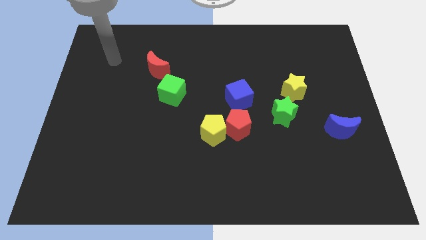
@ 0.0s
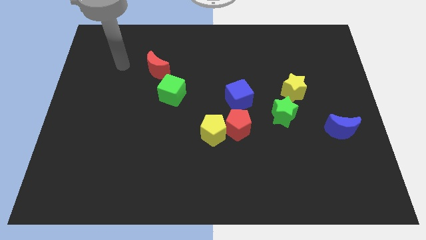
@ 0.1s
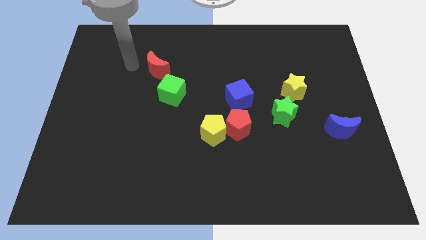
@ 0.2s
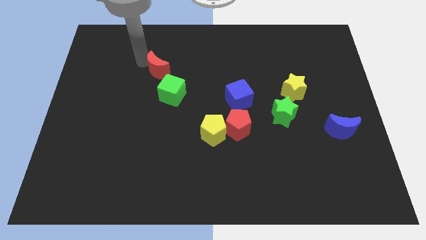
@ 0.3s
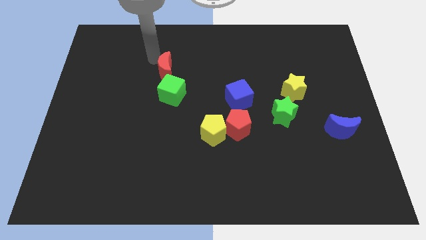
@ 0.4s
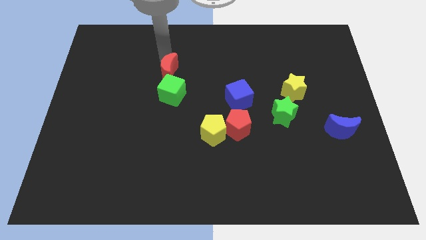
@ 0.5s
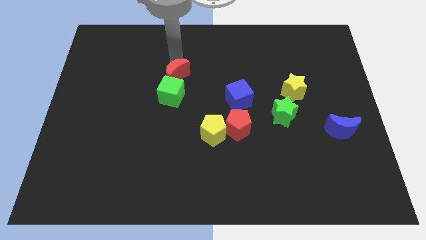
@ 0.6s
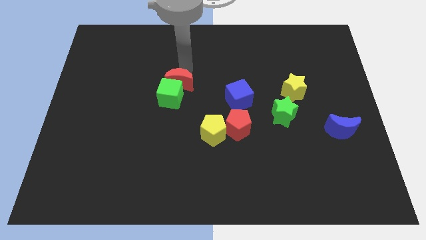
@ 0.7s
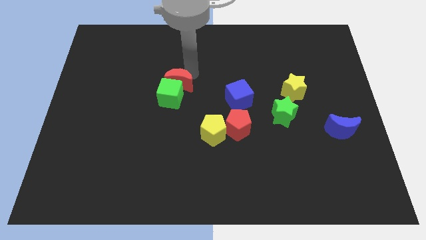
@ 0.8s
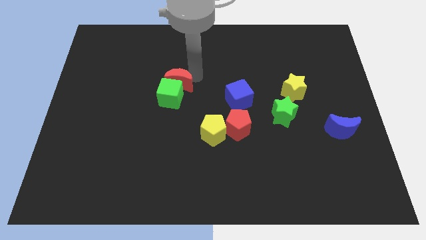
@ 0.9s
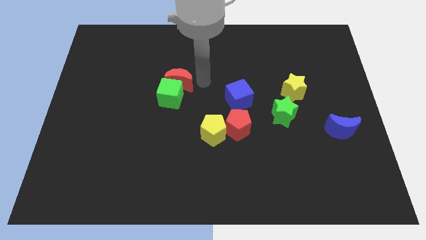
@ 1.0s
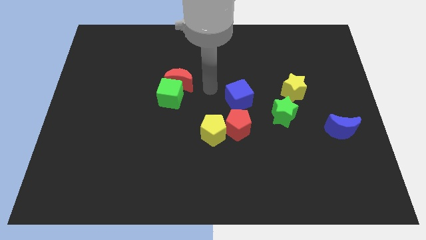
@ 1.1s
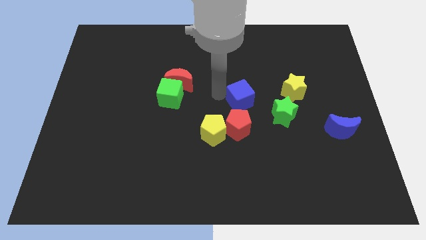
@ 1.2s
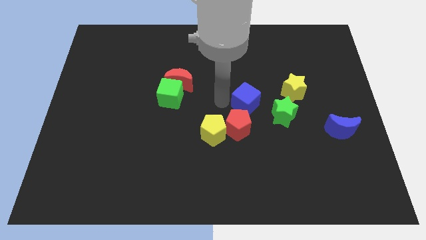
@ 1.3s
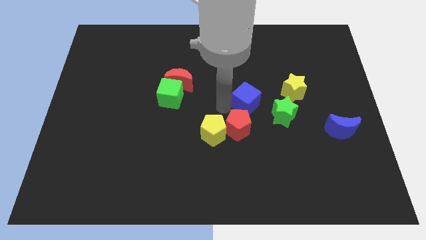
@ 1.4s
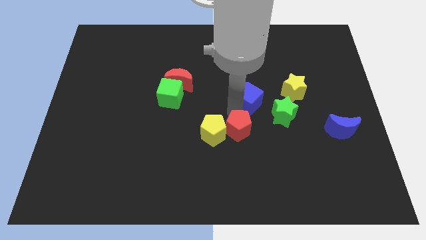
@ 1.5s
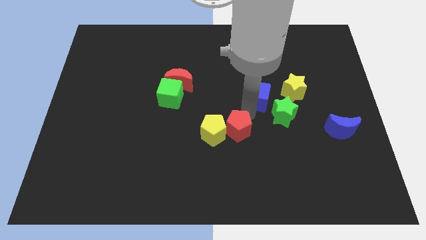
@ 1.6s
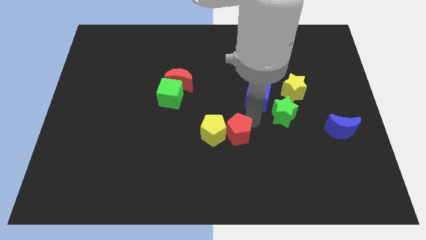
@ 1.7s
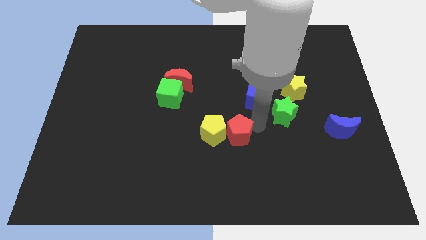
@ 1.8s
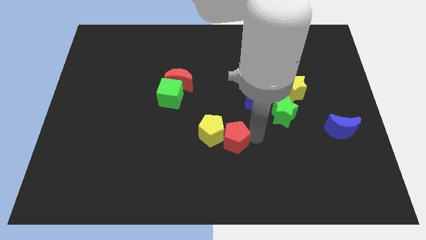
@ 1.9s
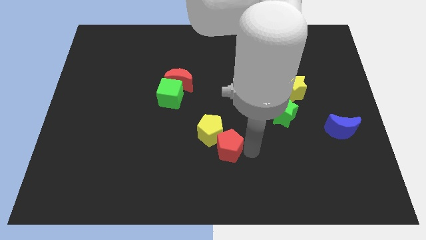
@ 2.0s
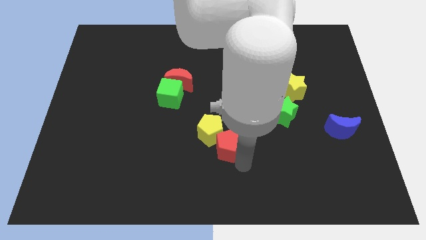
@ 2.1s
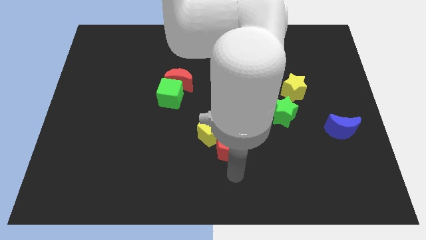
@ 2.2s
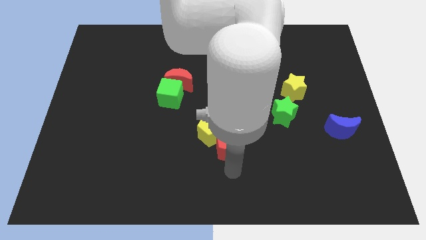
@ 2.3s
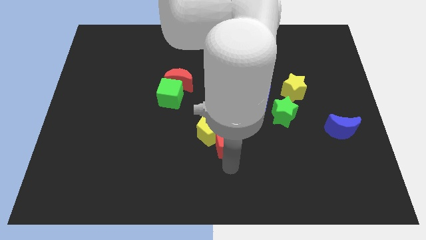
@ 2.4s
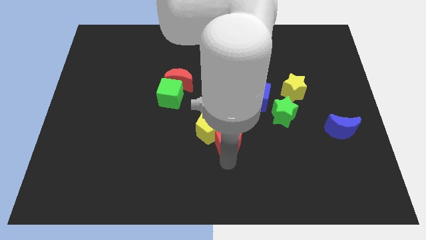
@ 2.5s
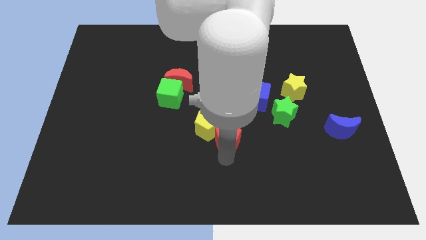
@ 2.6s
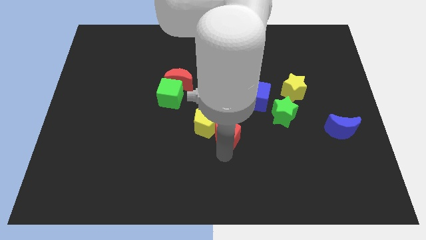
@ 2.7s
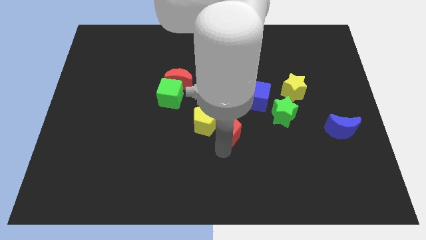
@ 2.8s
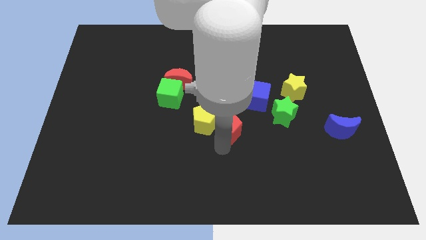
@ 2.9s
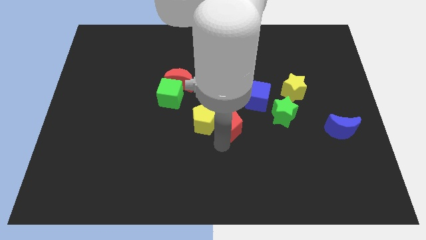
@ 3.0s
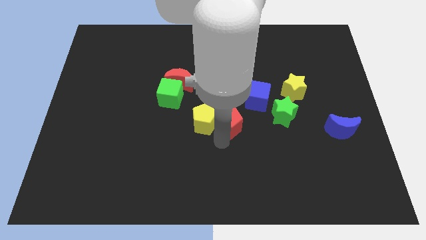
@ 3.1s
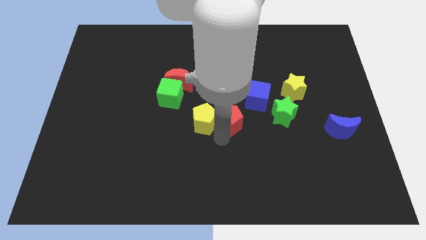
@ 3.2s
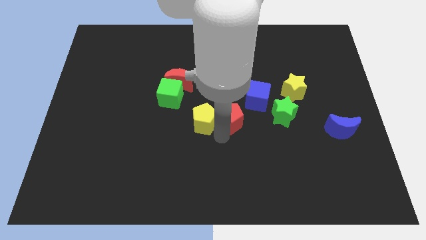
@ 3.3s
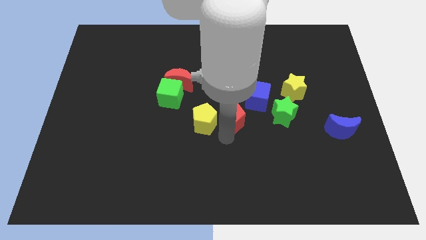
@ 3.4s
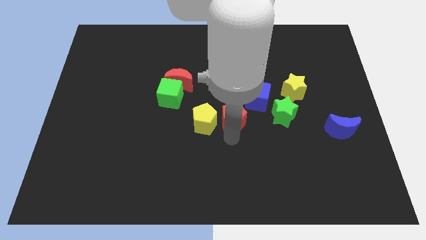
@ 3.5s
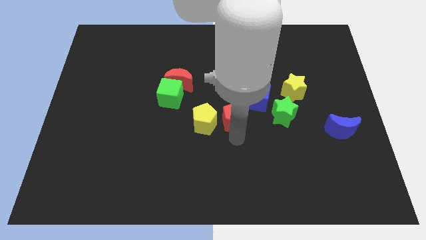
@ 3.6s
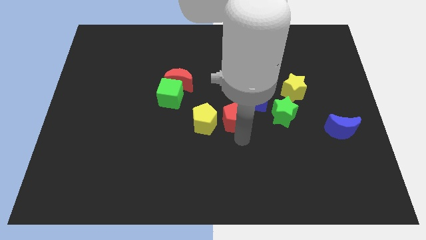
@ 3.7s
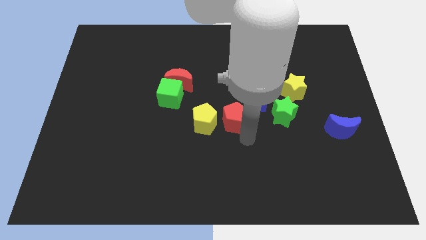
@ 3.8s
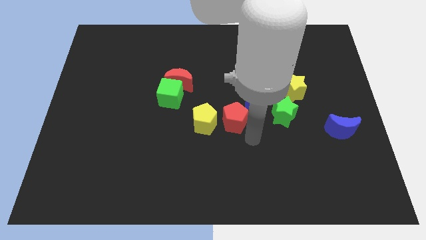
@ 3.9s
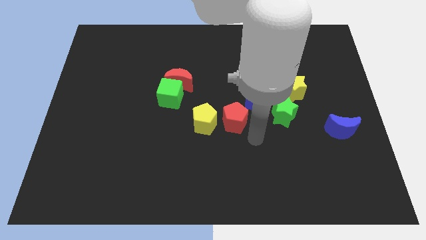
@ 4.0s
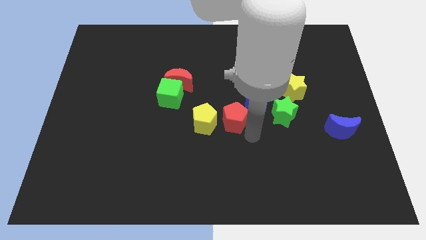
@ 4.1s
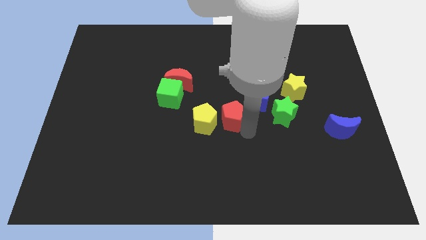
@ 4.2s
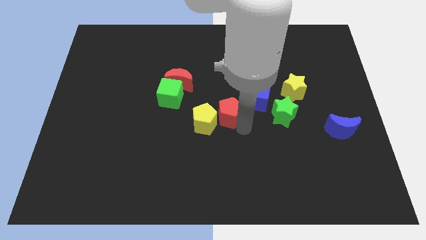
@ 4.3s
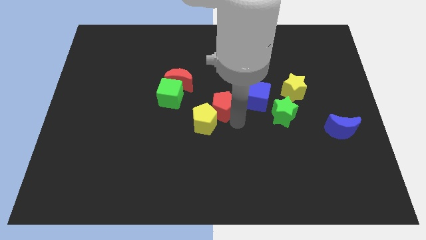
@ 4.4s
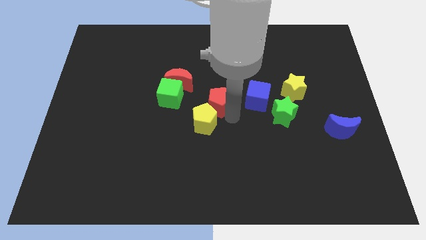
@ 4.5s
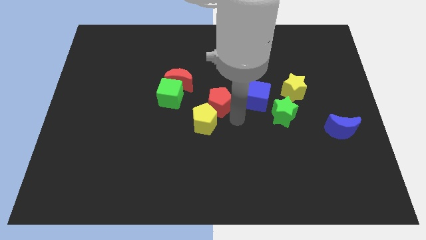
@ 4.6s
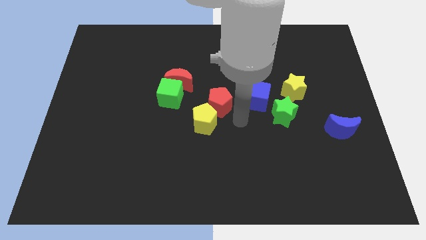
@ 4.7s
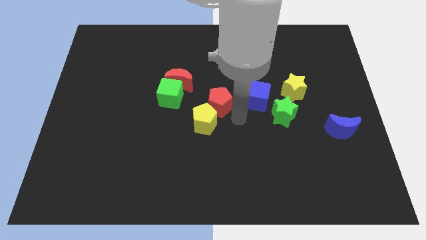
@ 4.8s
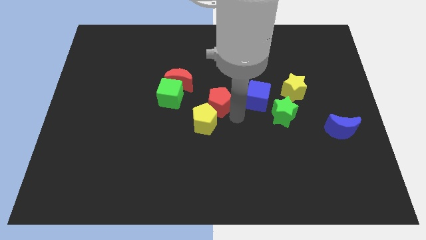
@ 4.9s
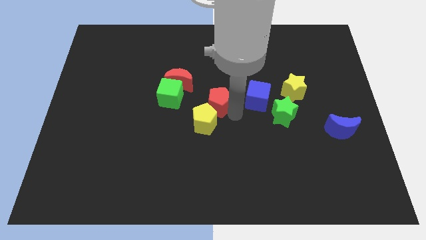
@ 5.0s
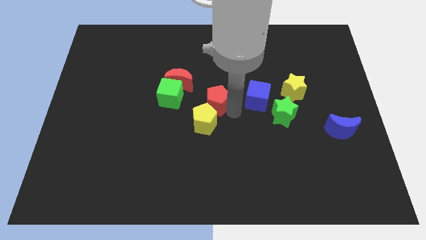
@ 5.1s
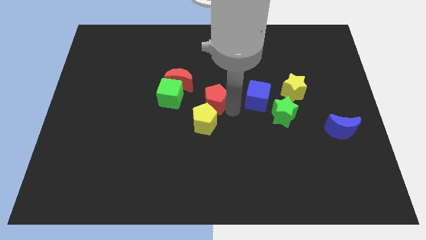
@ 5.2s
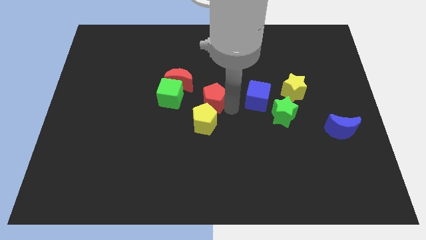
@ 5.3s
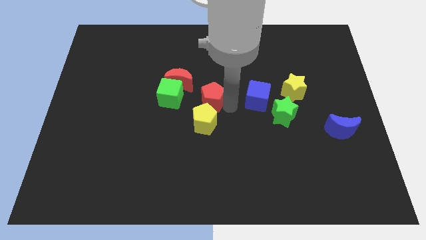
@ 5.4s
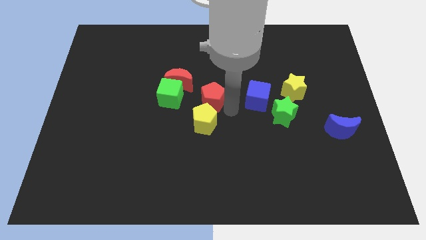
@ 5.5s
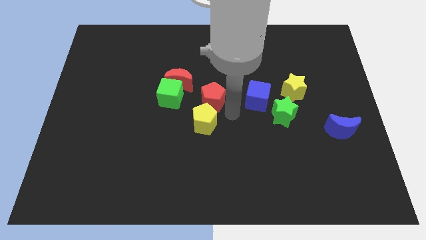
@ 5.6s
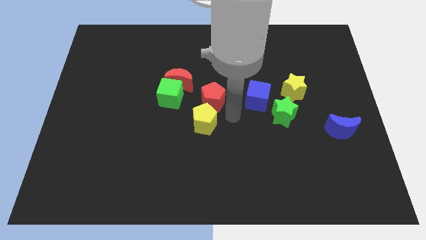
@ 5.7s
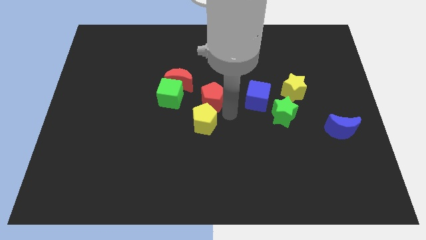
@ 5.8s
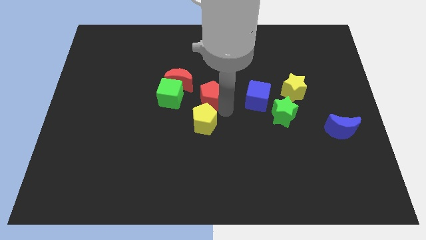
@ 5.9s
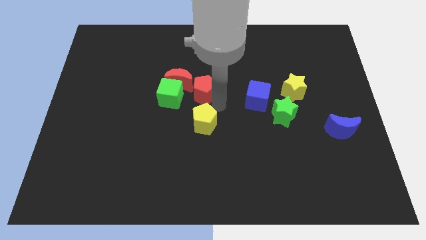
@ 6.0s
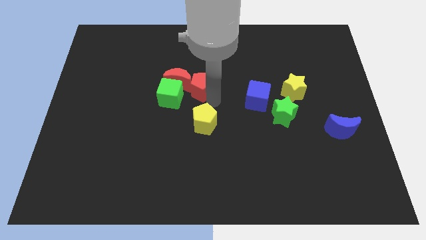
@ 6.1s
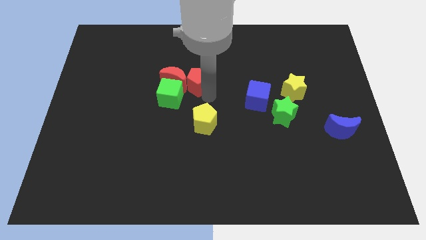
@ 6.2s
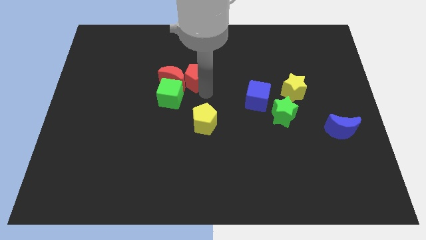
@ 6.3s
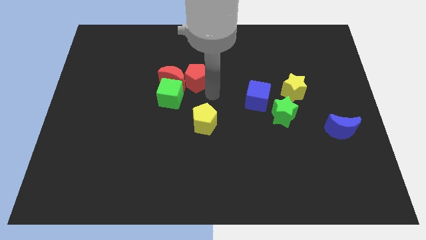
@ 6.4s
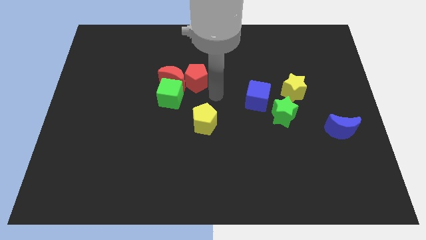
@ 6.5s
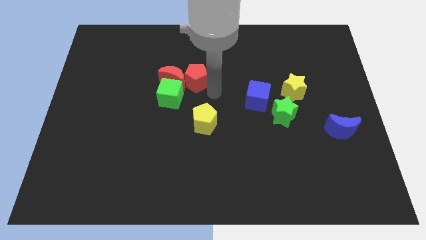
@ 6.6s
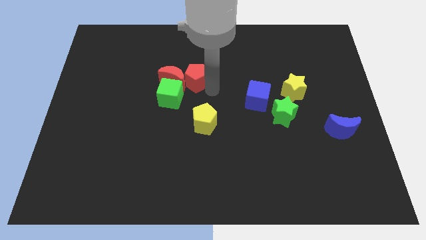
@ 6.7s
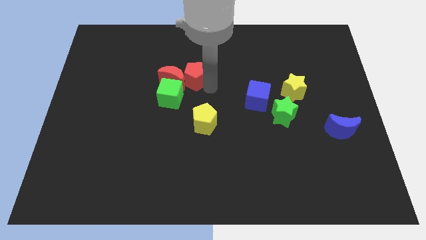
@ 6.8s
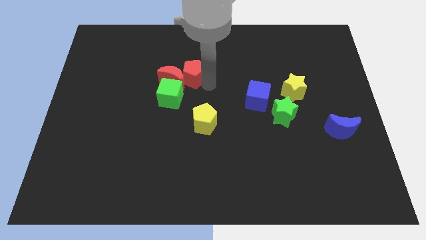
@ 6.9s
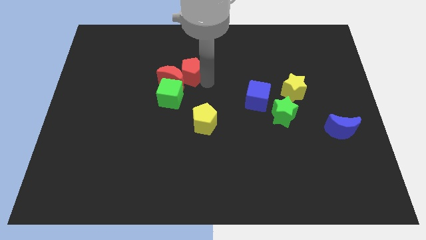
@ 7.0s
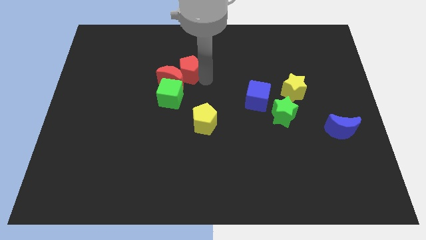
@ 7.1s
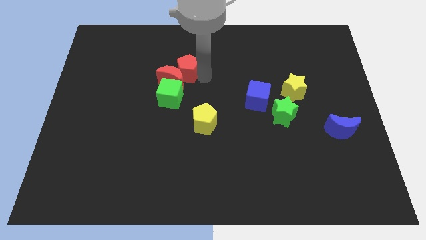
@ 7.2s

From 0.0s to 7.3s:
slide the red pentagon upwards and to the left diagonally

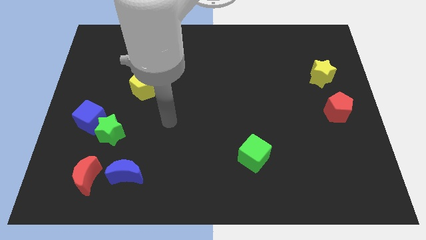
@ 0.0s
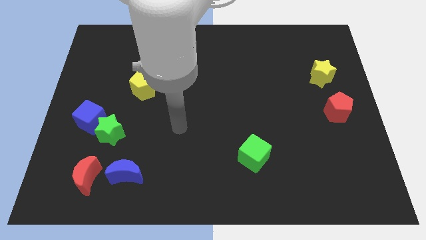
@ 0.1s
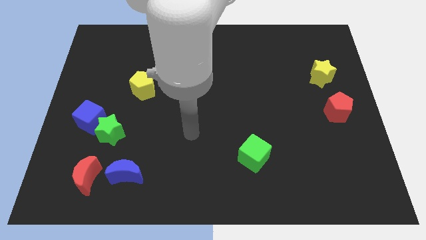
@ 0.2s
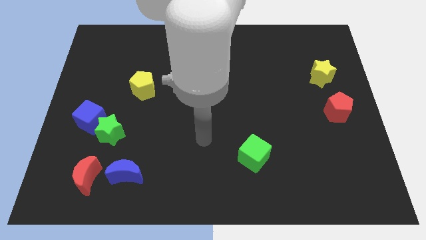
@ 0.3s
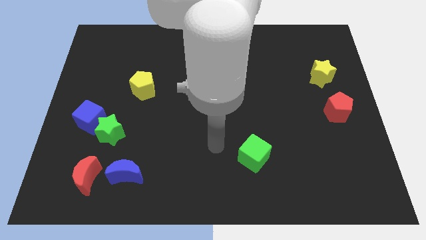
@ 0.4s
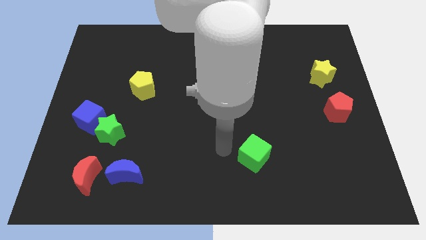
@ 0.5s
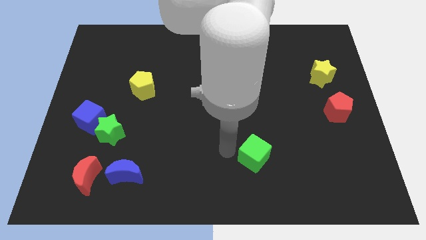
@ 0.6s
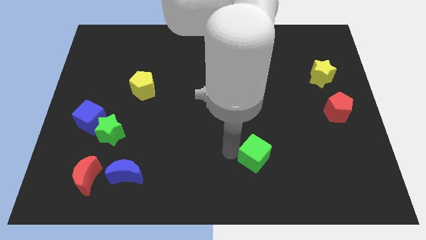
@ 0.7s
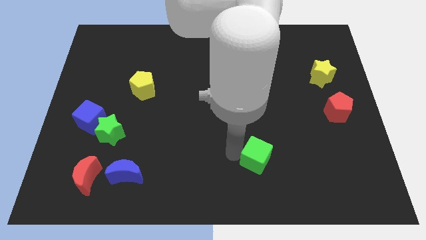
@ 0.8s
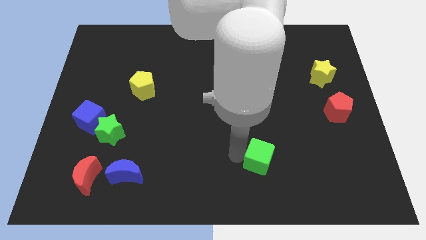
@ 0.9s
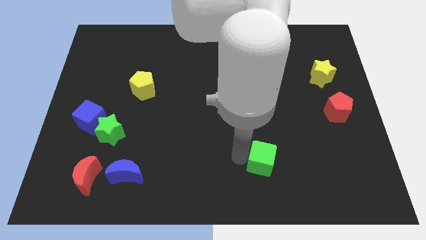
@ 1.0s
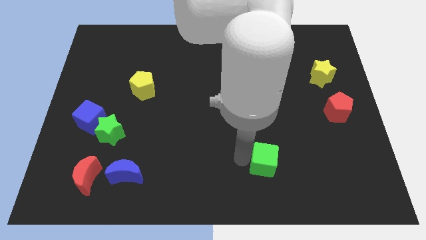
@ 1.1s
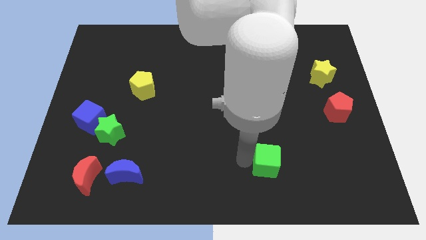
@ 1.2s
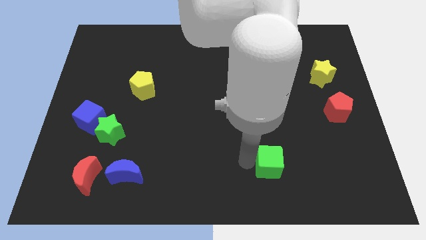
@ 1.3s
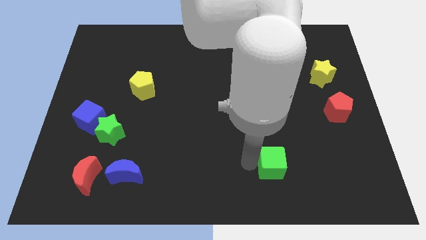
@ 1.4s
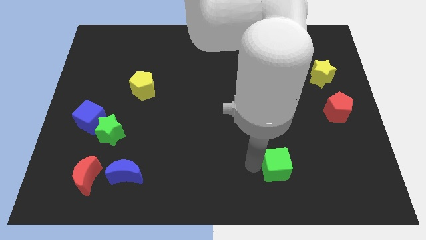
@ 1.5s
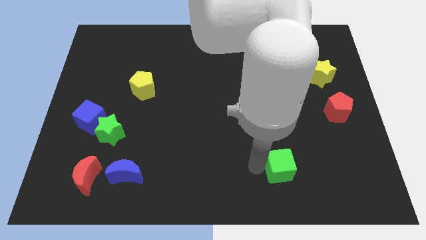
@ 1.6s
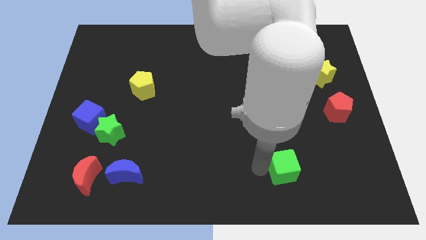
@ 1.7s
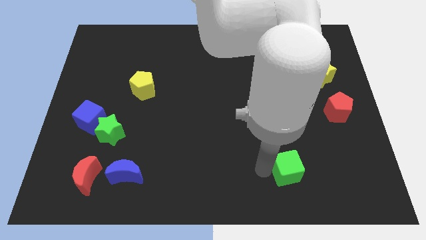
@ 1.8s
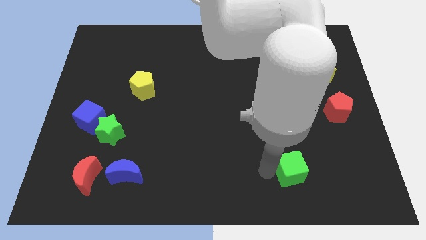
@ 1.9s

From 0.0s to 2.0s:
slide the green cube slightly right
